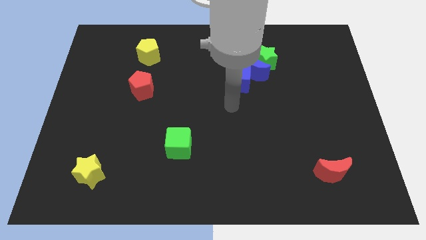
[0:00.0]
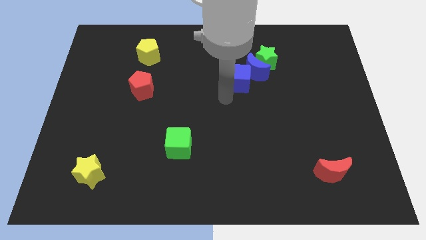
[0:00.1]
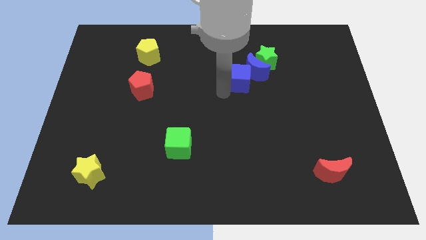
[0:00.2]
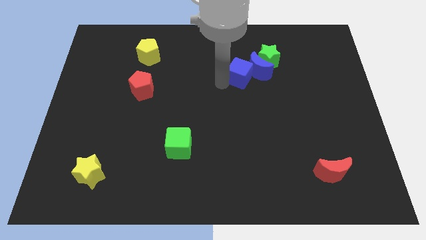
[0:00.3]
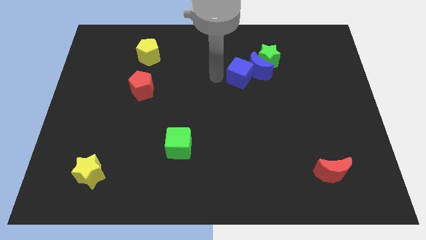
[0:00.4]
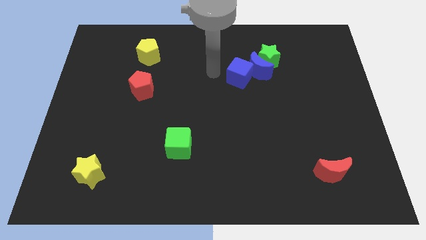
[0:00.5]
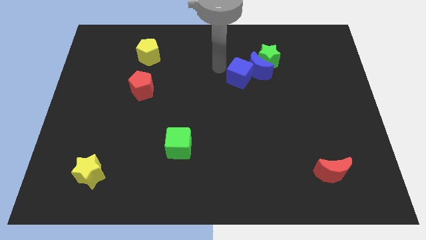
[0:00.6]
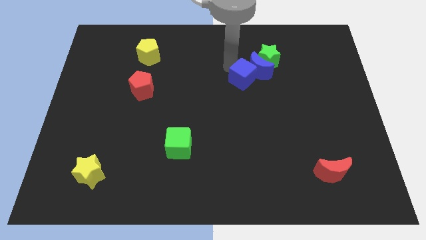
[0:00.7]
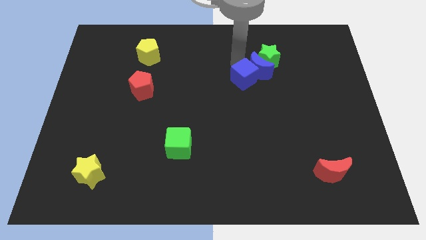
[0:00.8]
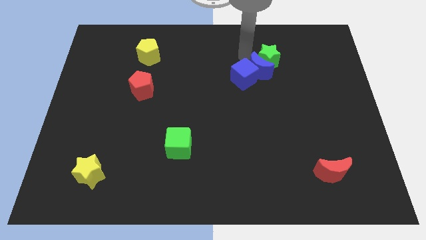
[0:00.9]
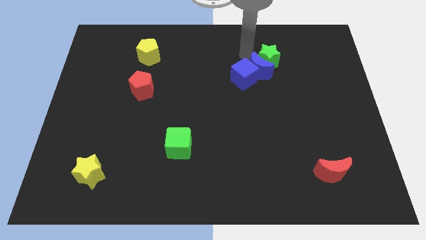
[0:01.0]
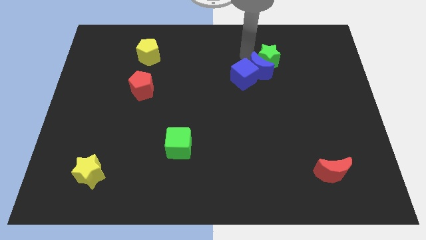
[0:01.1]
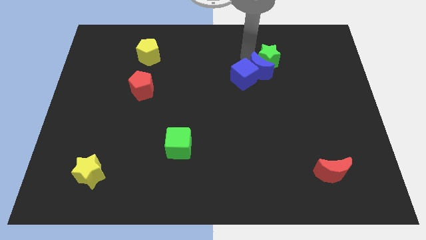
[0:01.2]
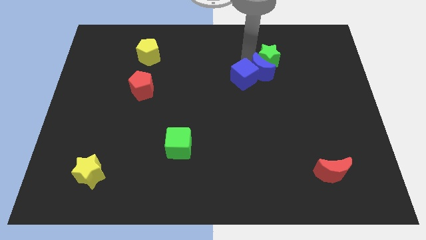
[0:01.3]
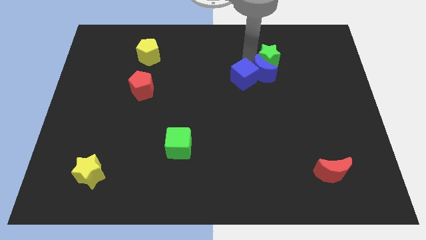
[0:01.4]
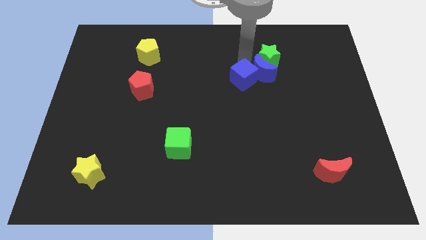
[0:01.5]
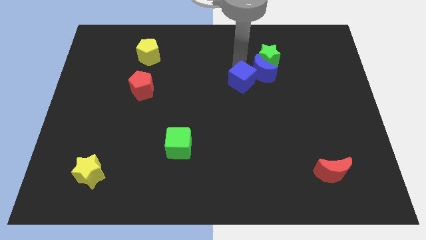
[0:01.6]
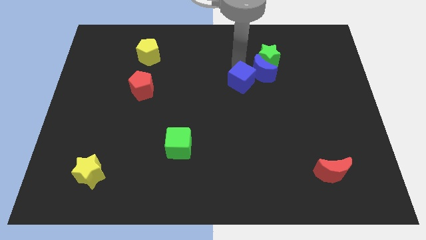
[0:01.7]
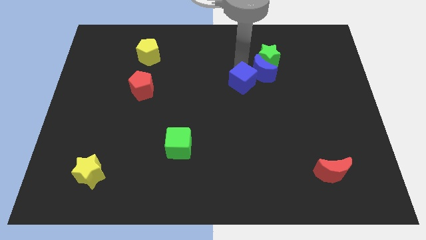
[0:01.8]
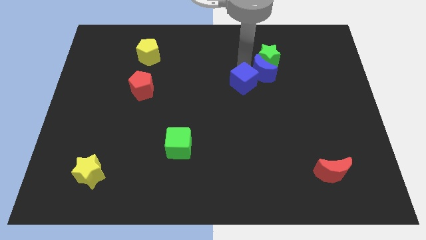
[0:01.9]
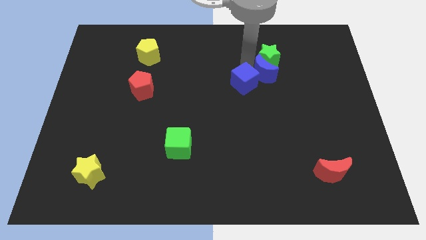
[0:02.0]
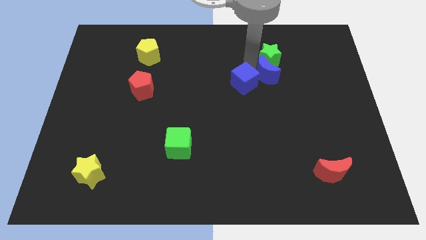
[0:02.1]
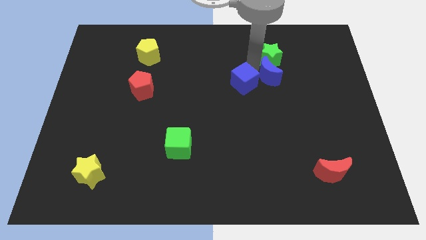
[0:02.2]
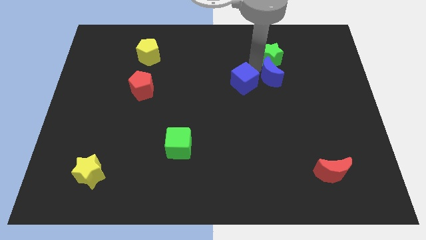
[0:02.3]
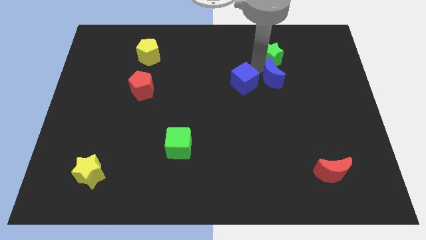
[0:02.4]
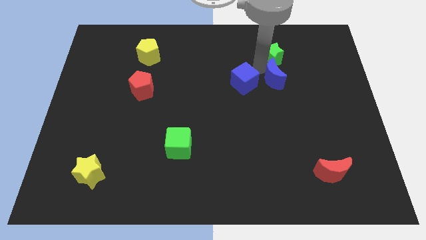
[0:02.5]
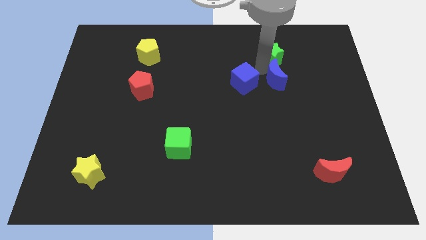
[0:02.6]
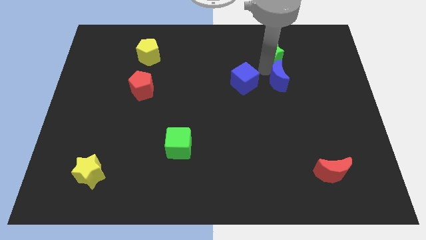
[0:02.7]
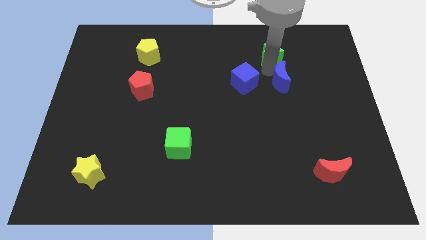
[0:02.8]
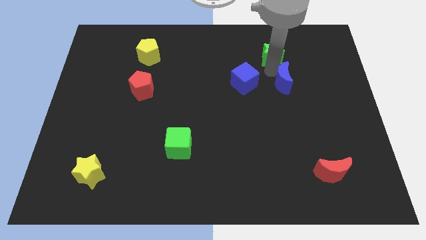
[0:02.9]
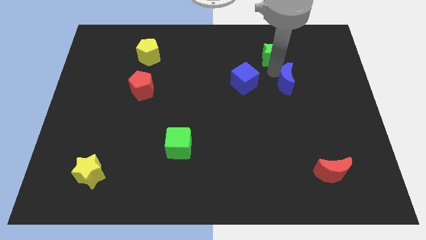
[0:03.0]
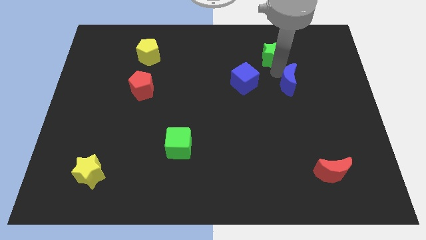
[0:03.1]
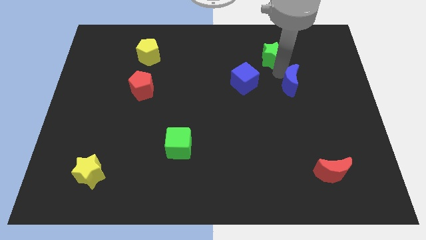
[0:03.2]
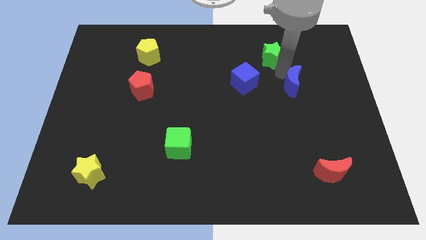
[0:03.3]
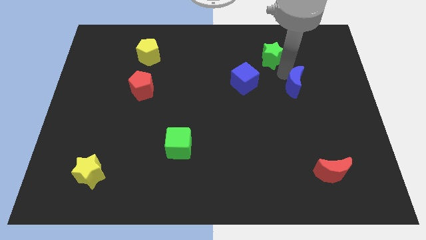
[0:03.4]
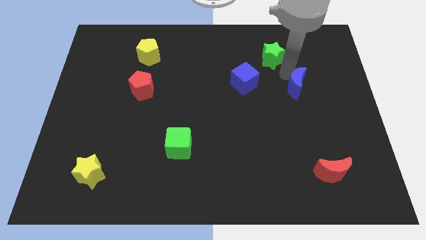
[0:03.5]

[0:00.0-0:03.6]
pull the blue moon apart from the green star and blue cube

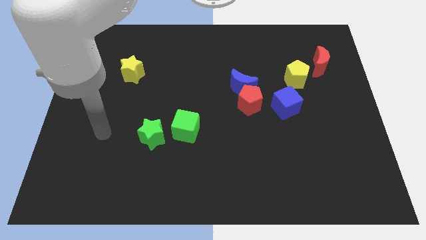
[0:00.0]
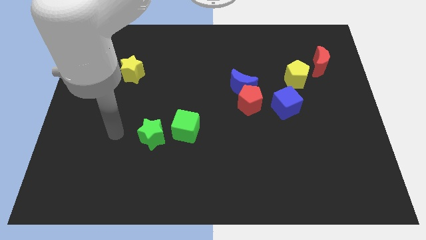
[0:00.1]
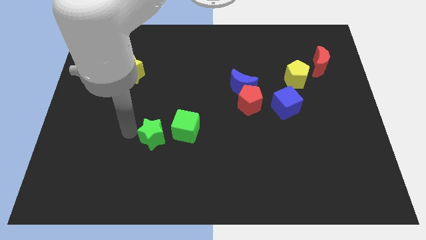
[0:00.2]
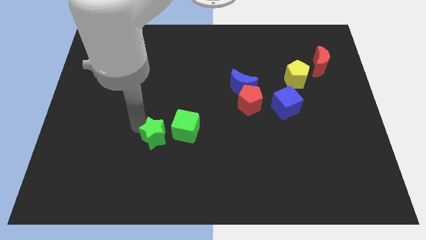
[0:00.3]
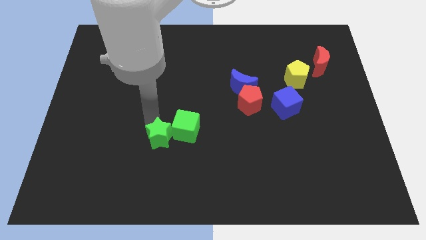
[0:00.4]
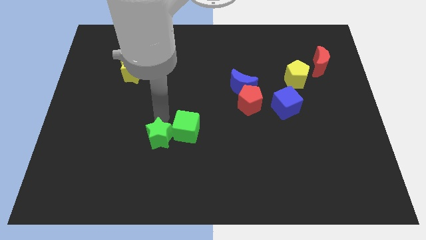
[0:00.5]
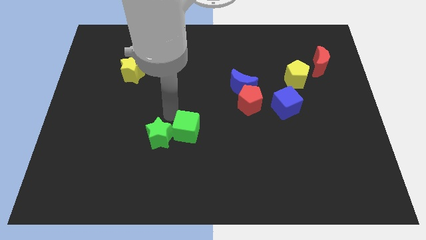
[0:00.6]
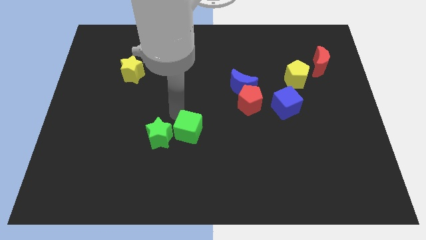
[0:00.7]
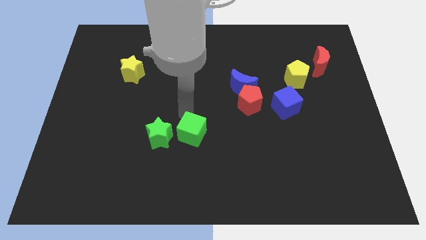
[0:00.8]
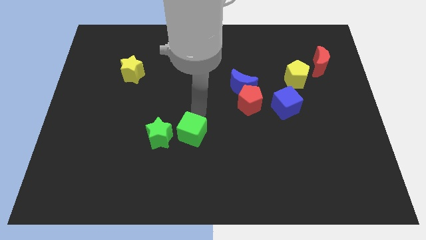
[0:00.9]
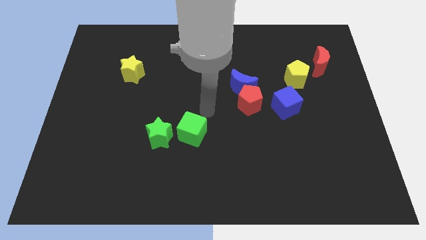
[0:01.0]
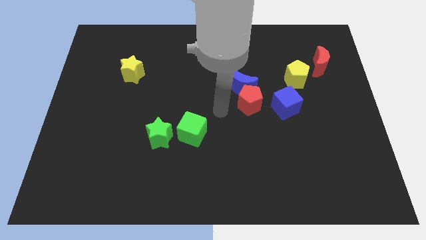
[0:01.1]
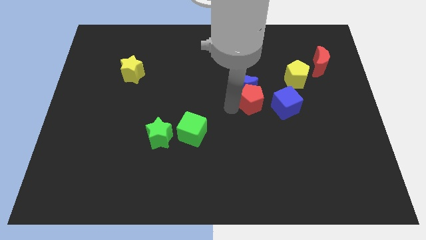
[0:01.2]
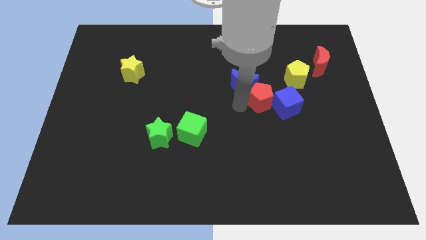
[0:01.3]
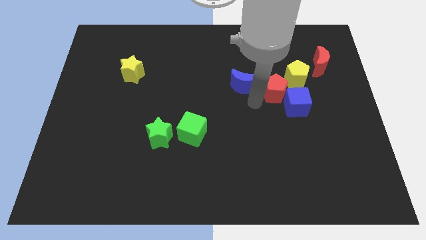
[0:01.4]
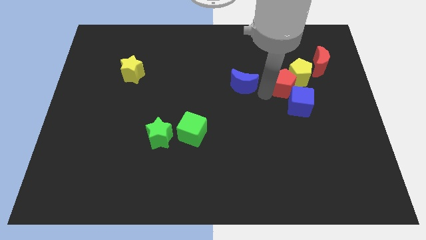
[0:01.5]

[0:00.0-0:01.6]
separate the blue moon from the red pentagon

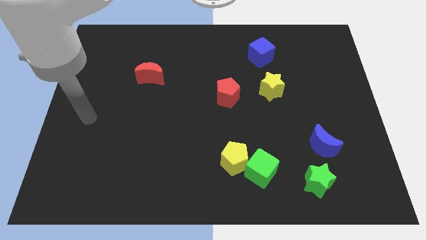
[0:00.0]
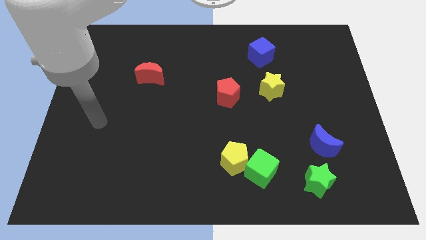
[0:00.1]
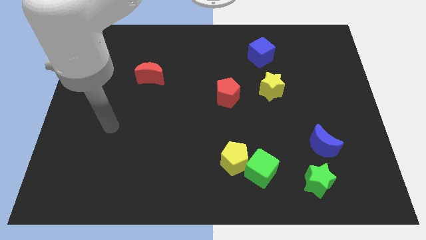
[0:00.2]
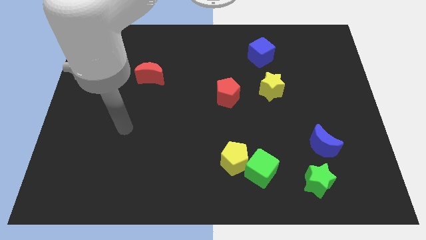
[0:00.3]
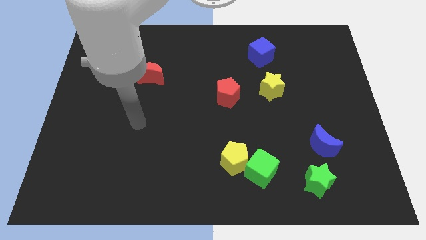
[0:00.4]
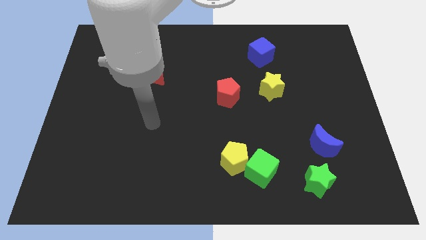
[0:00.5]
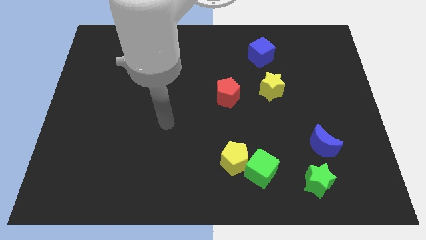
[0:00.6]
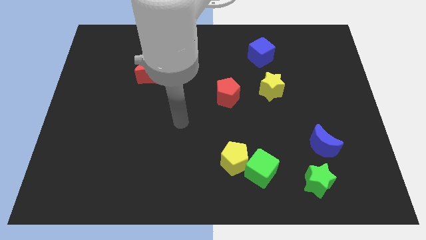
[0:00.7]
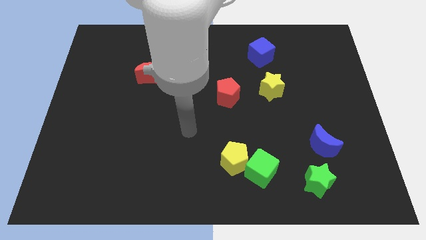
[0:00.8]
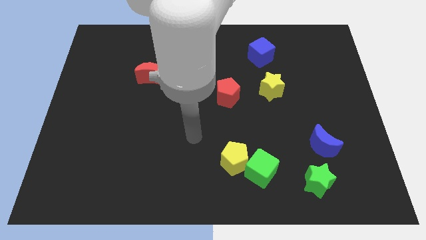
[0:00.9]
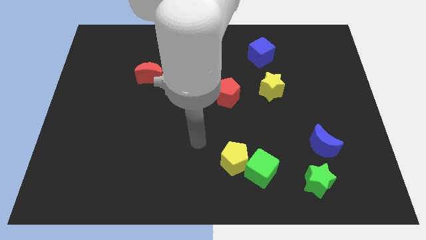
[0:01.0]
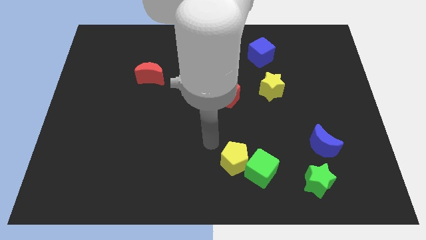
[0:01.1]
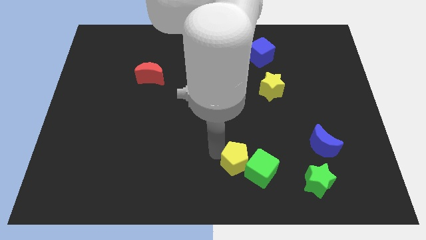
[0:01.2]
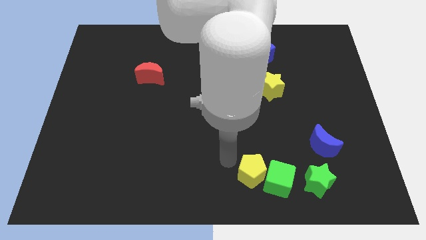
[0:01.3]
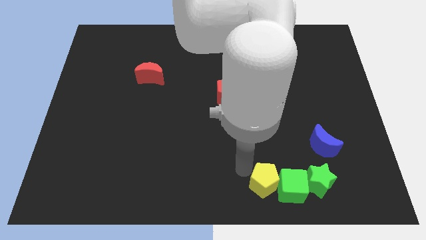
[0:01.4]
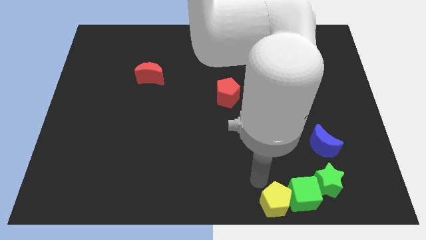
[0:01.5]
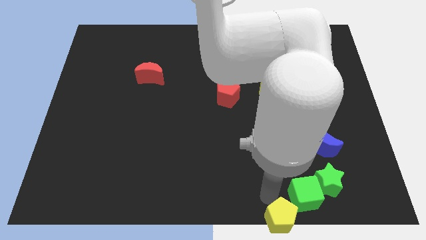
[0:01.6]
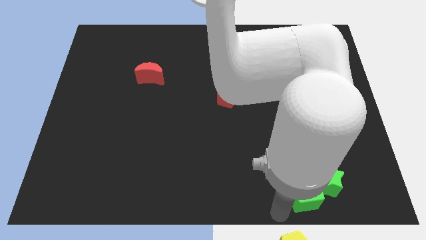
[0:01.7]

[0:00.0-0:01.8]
separate the green cube from the yellow pentagon

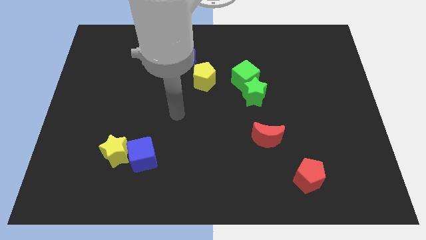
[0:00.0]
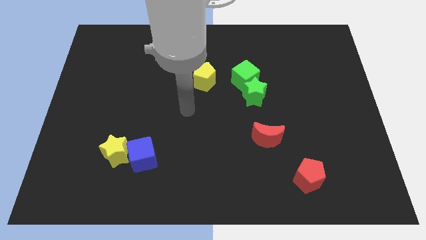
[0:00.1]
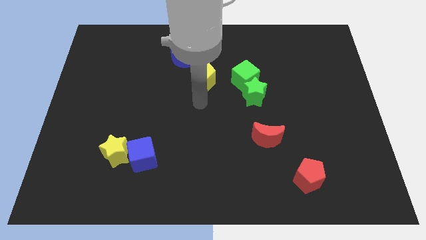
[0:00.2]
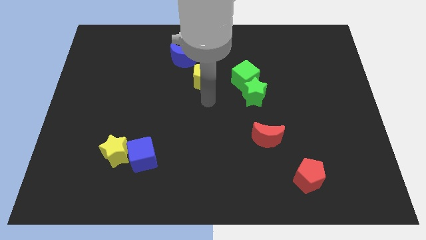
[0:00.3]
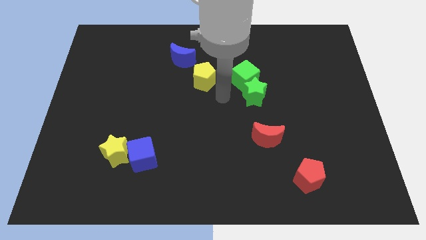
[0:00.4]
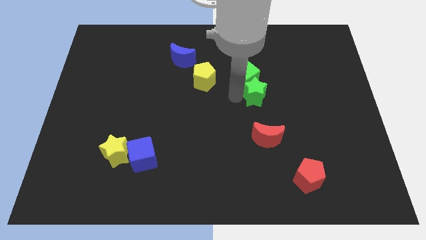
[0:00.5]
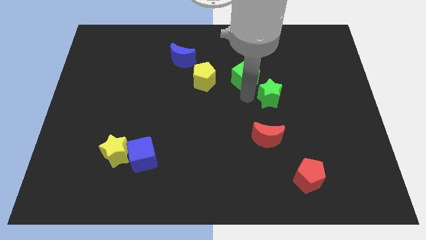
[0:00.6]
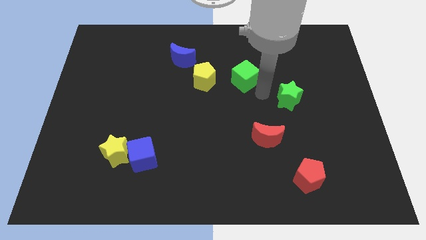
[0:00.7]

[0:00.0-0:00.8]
pull the green cube apart from the green star

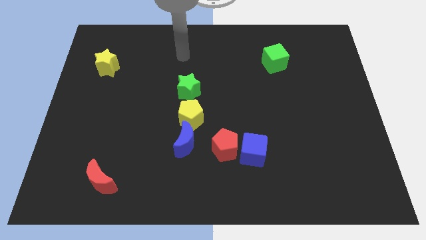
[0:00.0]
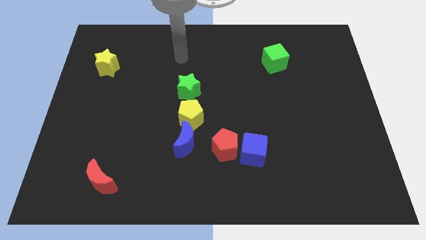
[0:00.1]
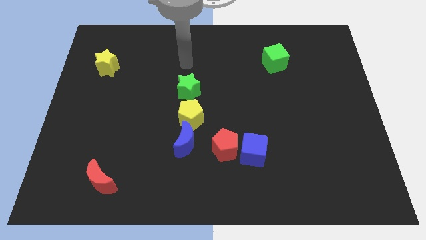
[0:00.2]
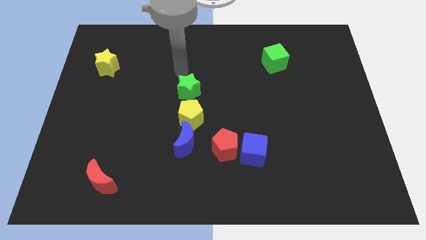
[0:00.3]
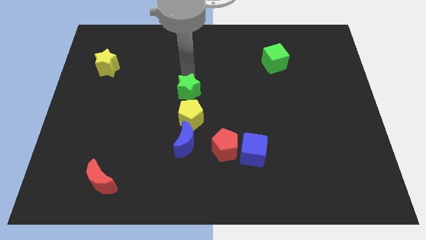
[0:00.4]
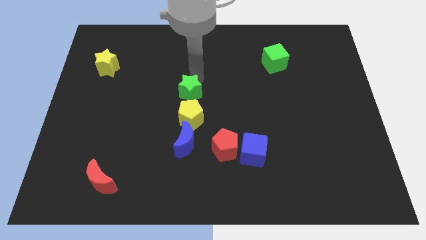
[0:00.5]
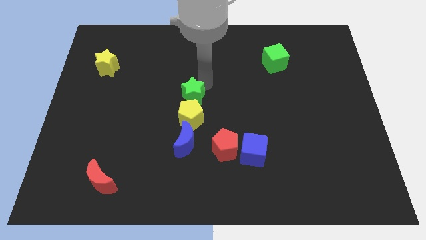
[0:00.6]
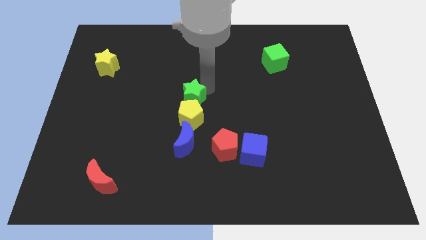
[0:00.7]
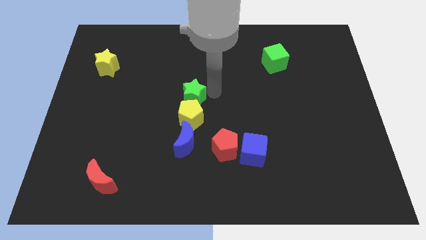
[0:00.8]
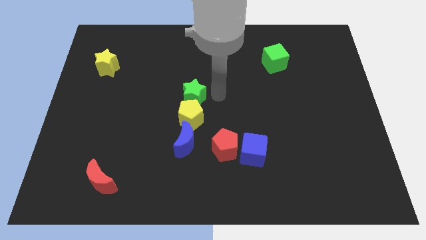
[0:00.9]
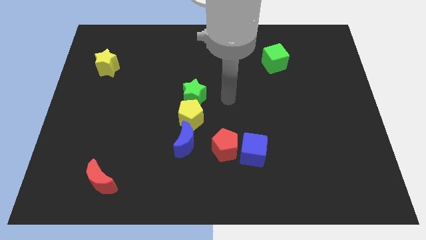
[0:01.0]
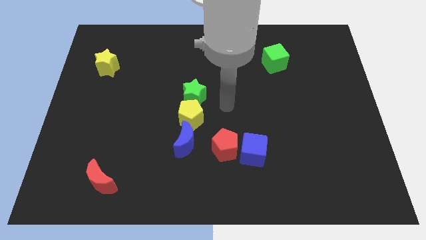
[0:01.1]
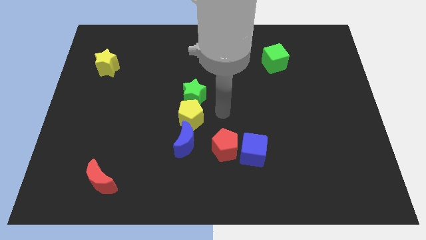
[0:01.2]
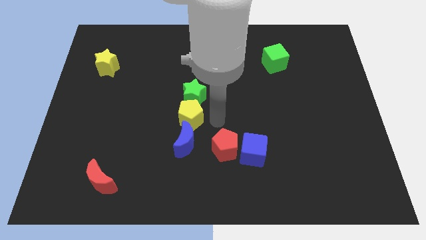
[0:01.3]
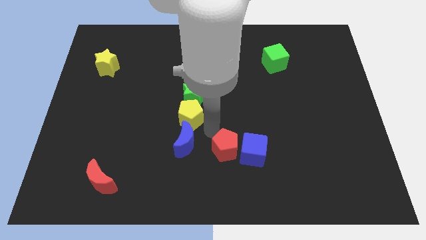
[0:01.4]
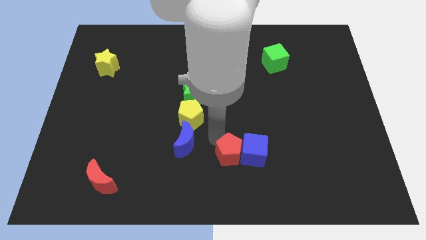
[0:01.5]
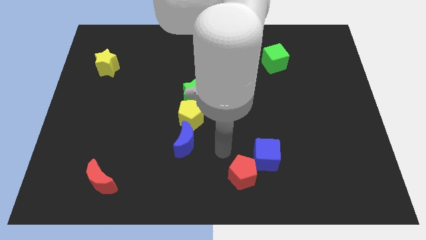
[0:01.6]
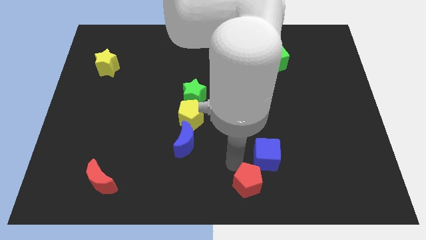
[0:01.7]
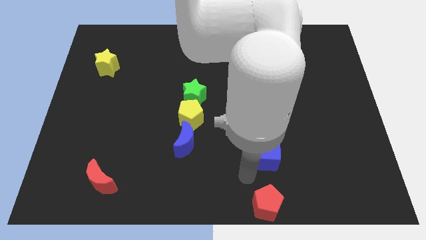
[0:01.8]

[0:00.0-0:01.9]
pull the blue cube apart from the red pentagon
